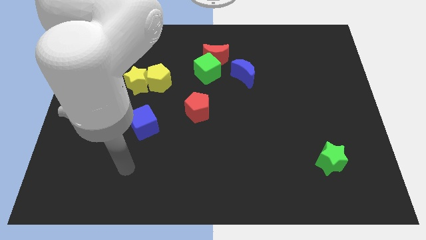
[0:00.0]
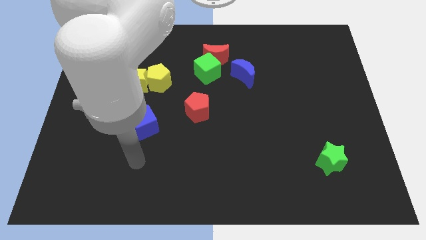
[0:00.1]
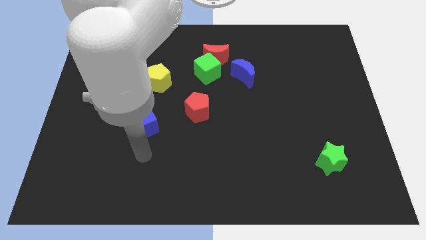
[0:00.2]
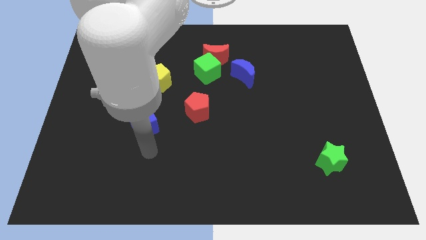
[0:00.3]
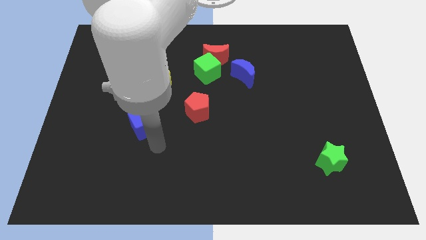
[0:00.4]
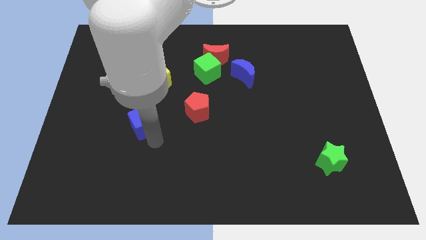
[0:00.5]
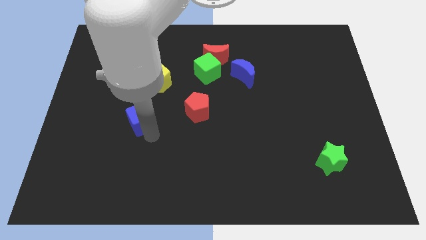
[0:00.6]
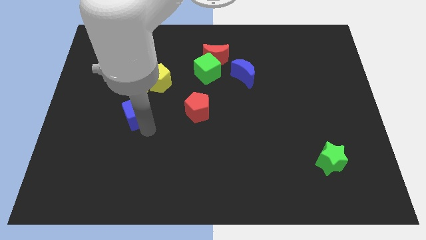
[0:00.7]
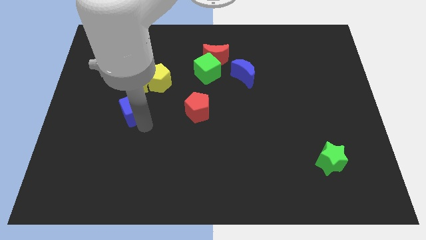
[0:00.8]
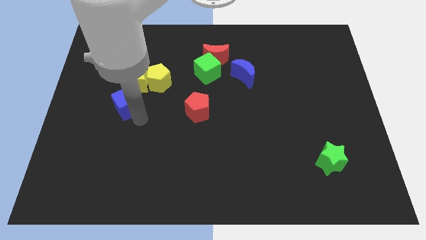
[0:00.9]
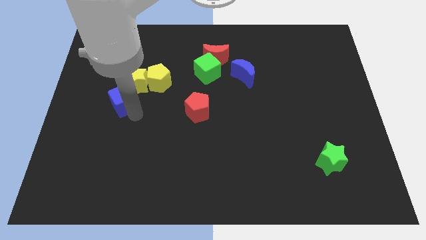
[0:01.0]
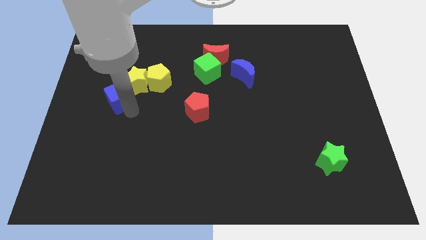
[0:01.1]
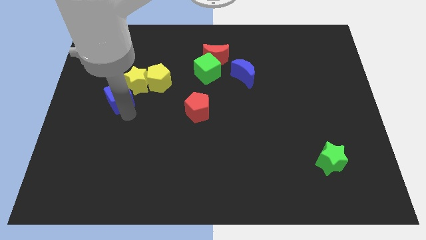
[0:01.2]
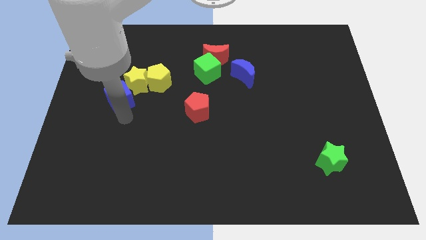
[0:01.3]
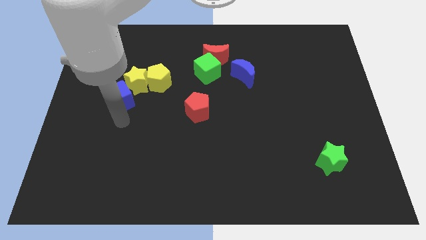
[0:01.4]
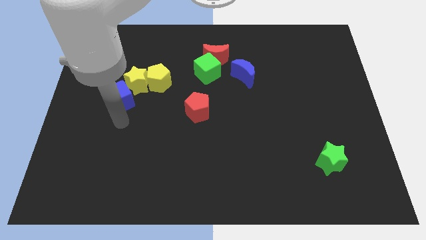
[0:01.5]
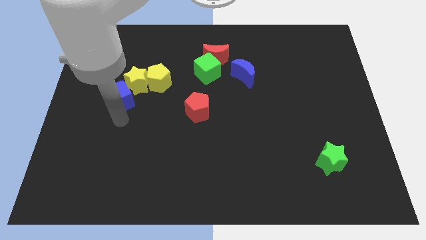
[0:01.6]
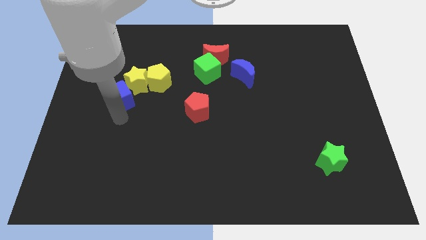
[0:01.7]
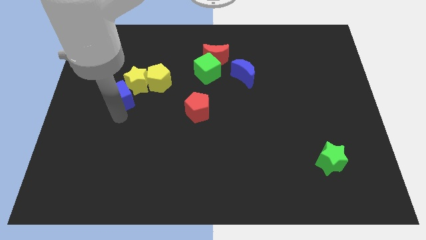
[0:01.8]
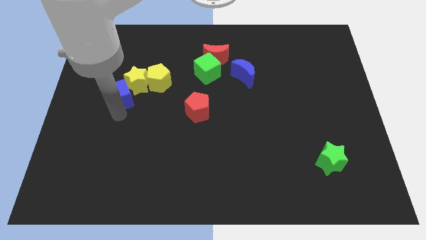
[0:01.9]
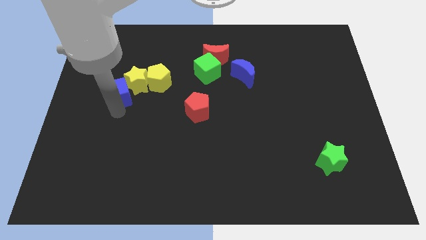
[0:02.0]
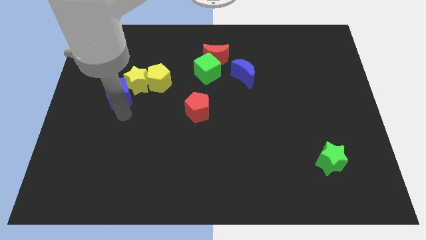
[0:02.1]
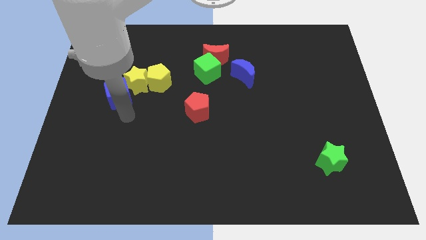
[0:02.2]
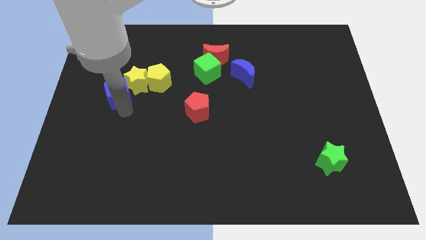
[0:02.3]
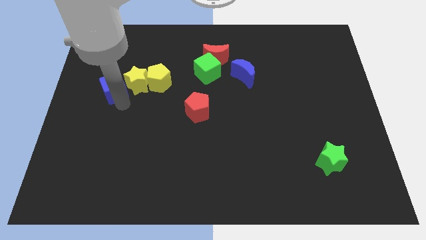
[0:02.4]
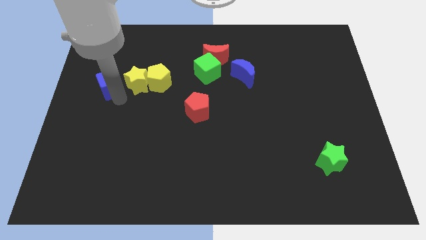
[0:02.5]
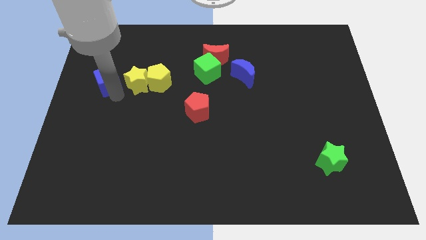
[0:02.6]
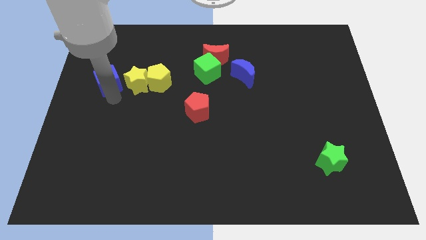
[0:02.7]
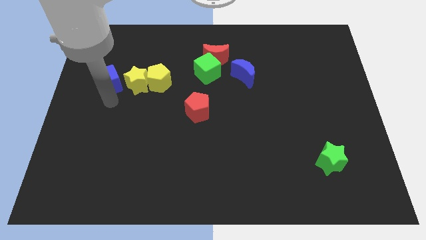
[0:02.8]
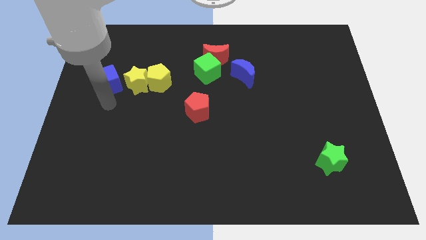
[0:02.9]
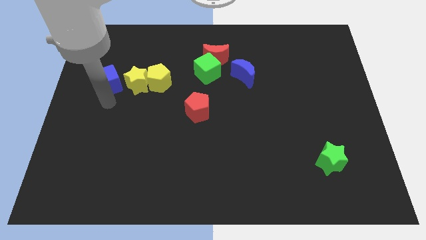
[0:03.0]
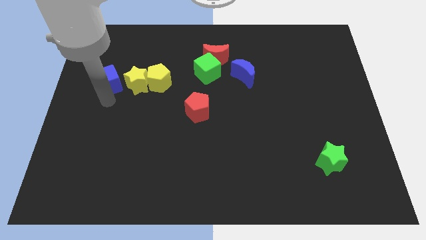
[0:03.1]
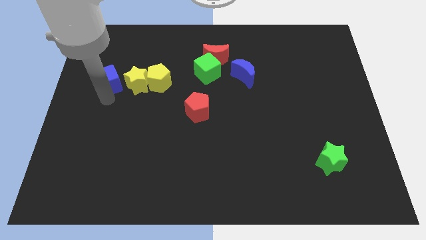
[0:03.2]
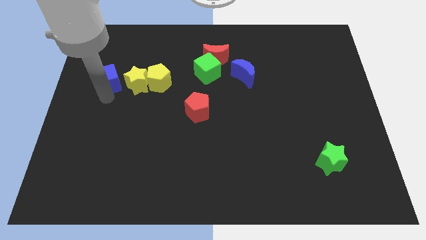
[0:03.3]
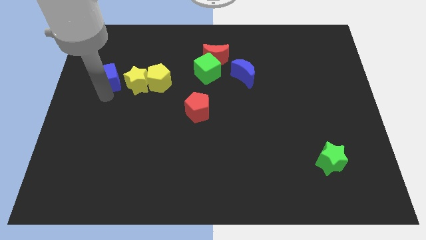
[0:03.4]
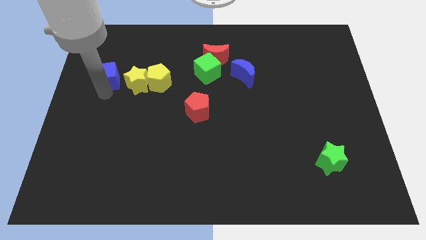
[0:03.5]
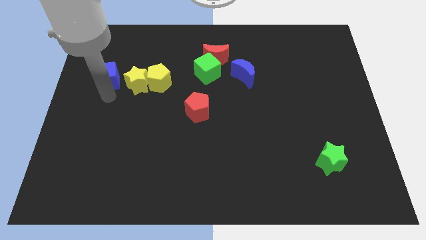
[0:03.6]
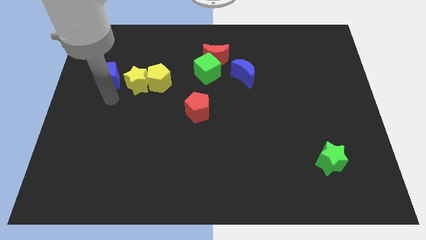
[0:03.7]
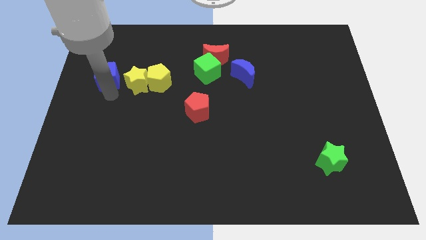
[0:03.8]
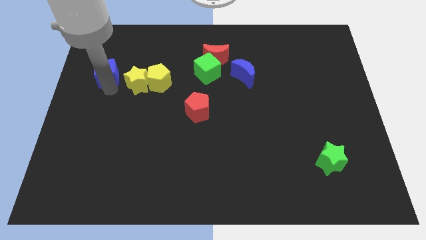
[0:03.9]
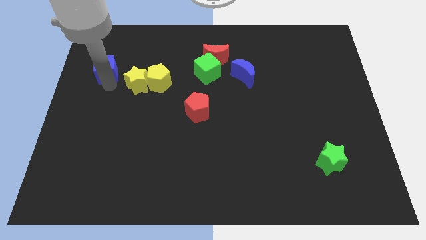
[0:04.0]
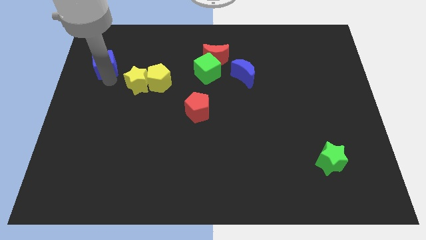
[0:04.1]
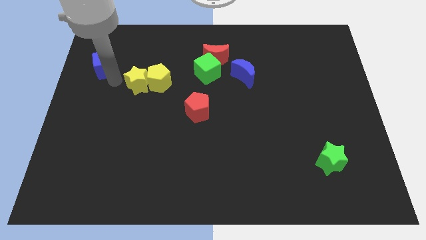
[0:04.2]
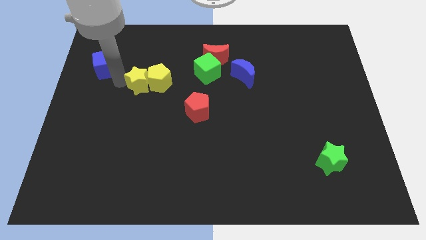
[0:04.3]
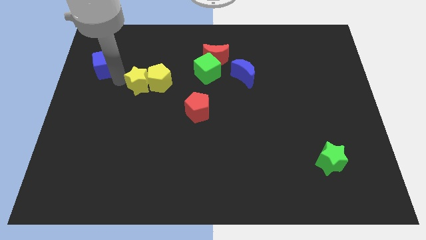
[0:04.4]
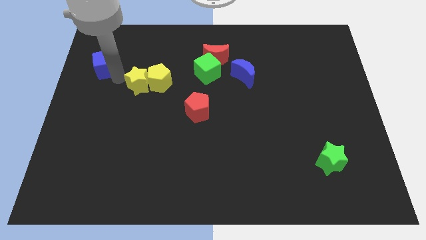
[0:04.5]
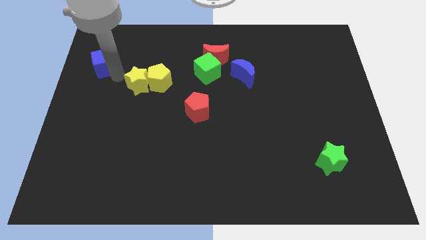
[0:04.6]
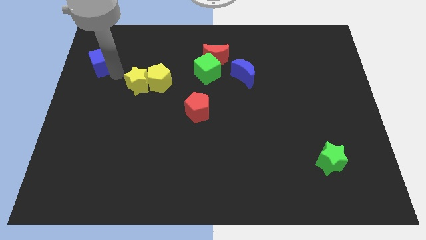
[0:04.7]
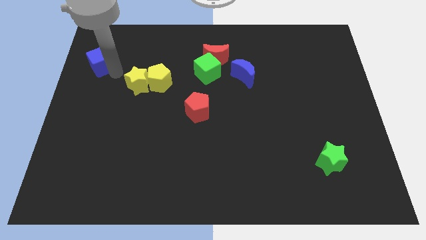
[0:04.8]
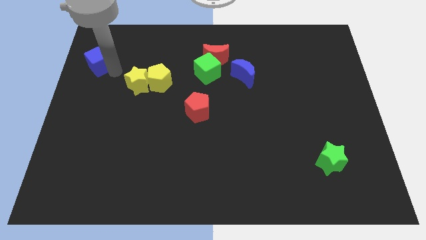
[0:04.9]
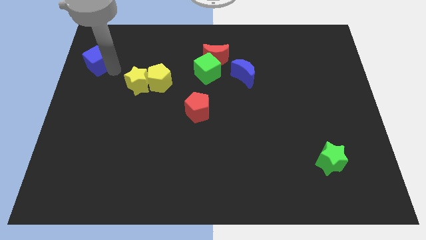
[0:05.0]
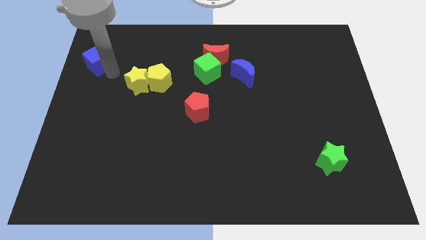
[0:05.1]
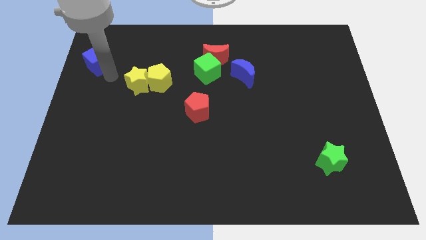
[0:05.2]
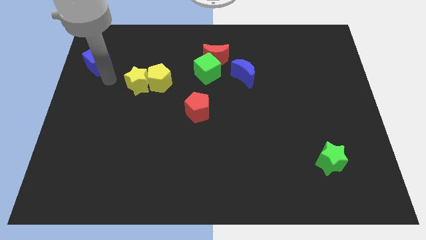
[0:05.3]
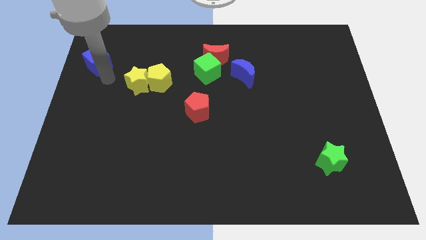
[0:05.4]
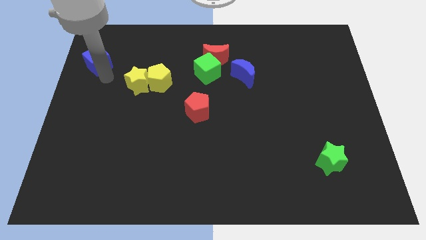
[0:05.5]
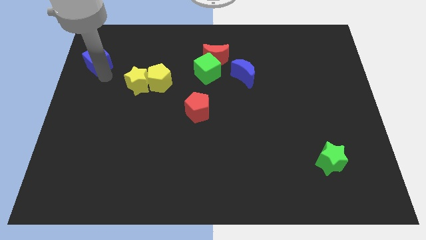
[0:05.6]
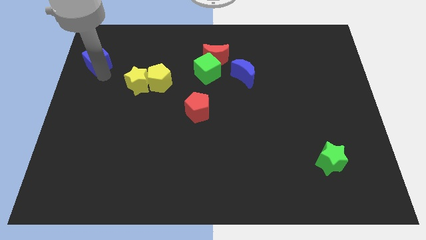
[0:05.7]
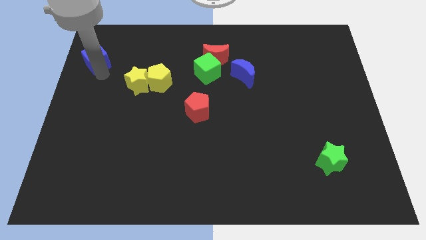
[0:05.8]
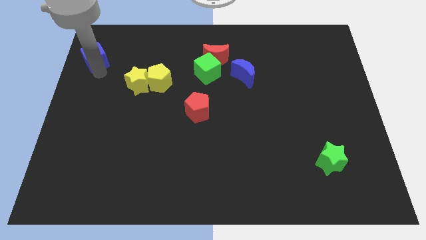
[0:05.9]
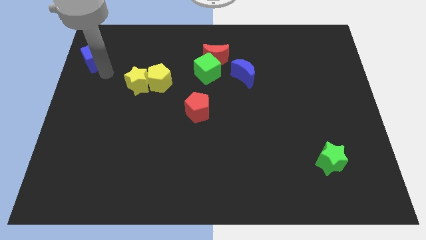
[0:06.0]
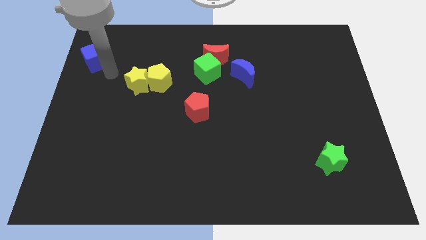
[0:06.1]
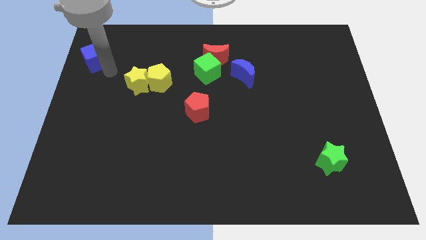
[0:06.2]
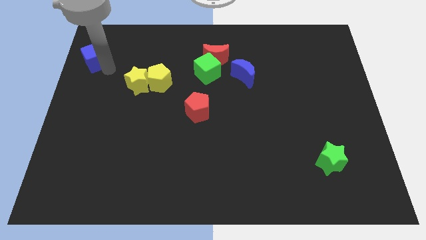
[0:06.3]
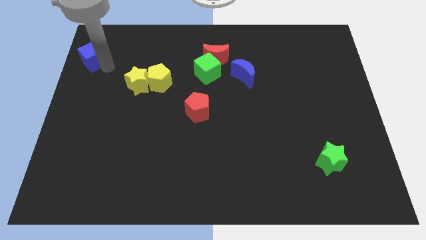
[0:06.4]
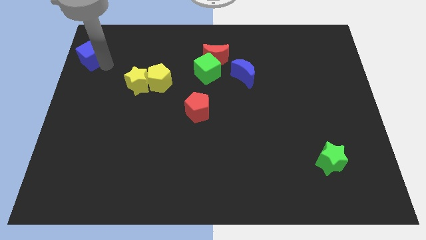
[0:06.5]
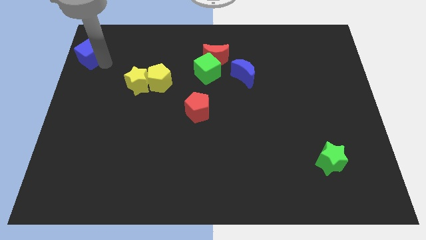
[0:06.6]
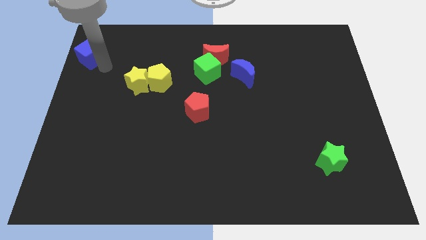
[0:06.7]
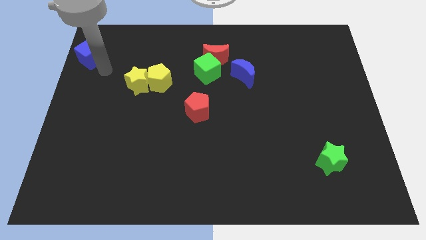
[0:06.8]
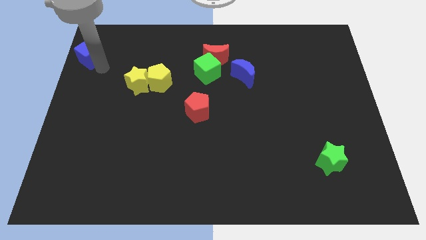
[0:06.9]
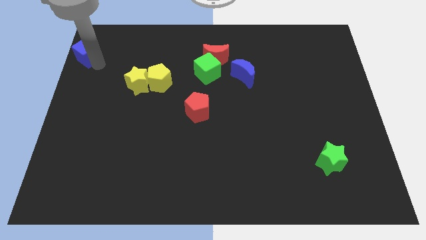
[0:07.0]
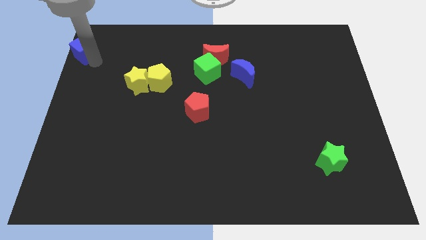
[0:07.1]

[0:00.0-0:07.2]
slide the blue cube to the top left

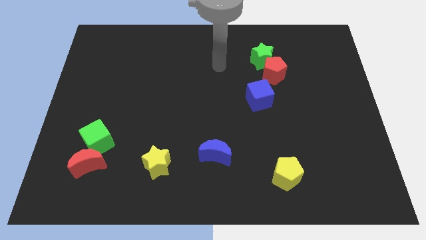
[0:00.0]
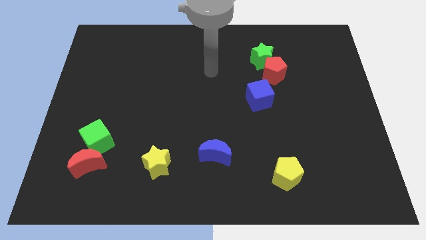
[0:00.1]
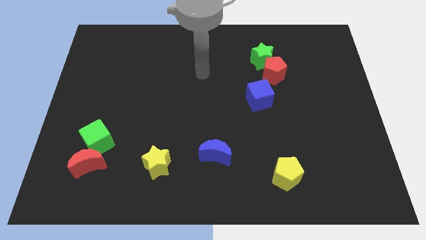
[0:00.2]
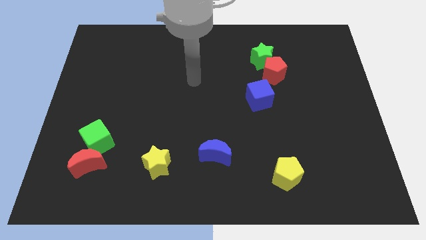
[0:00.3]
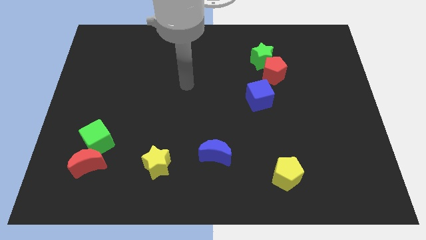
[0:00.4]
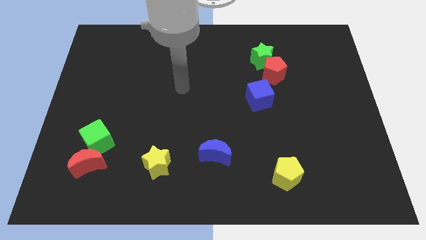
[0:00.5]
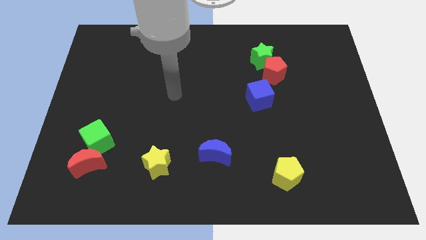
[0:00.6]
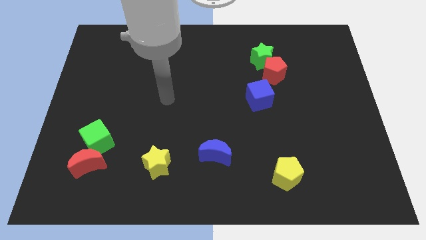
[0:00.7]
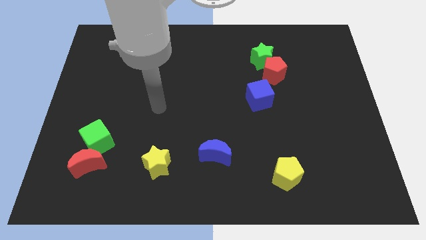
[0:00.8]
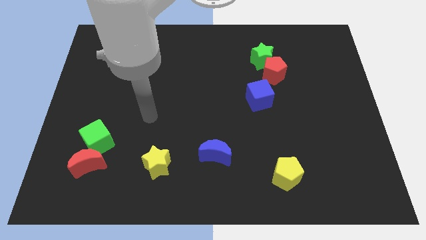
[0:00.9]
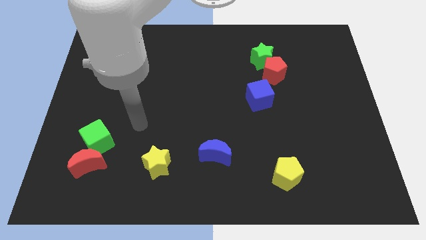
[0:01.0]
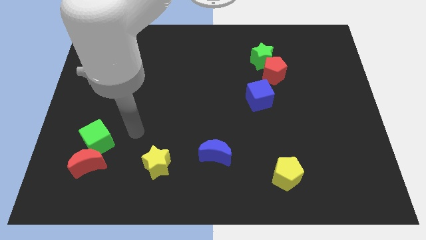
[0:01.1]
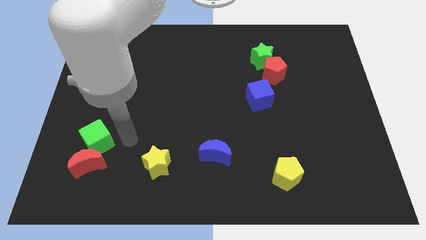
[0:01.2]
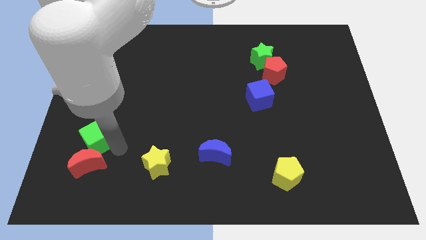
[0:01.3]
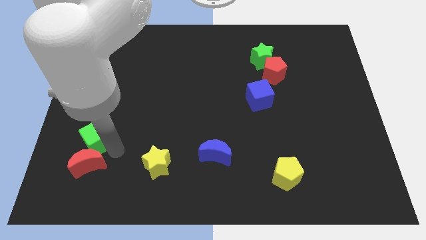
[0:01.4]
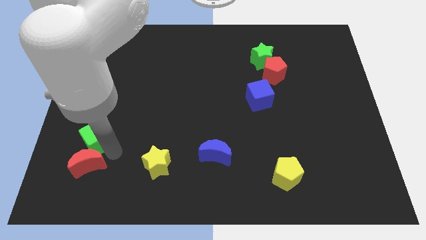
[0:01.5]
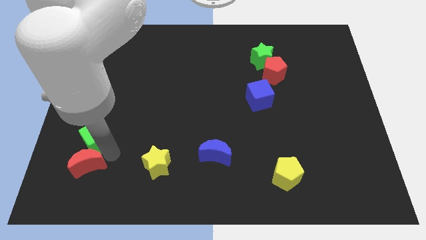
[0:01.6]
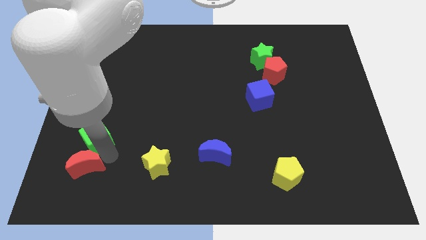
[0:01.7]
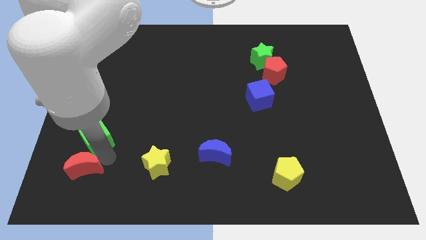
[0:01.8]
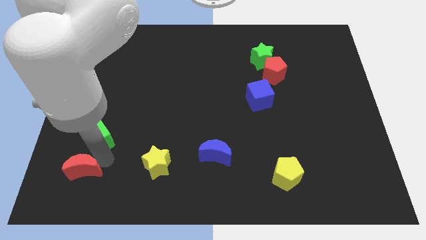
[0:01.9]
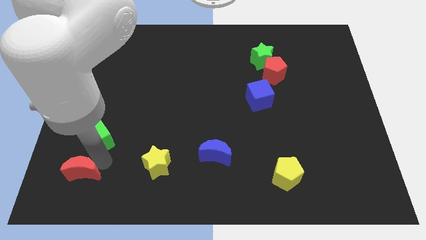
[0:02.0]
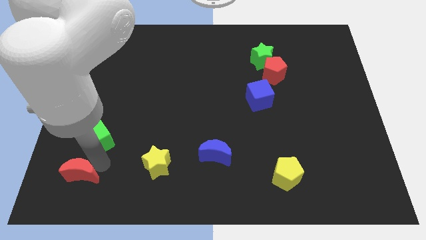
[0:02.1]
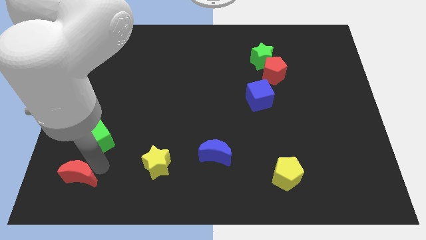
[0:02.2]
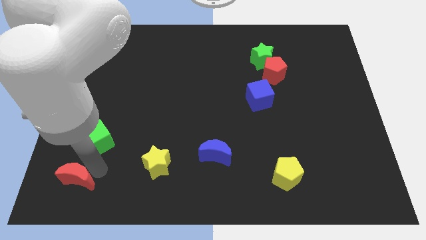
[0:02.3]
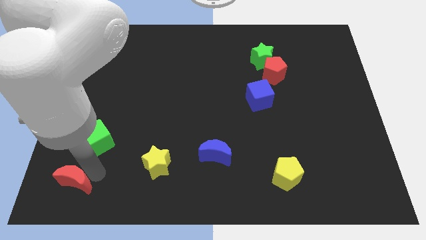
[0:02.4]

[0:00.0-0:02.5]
push the red moon to the bottom left
